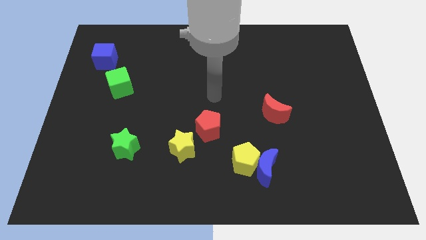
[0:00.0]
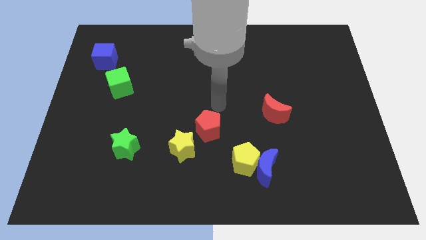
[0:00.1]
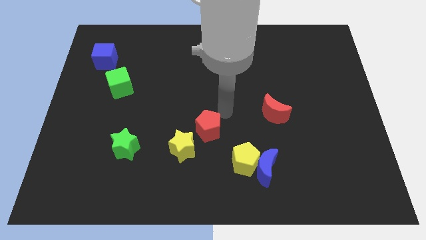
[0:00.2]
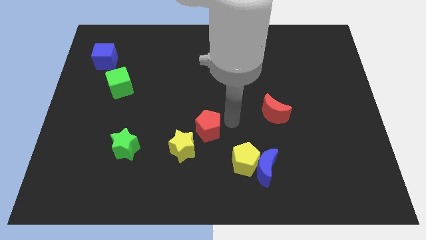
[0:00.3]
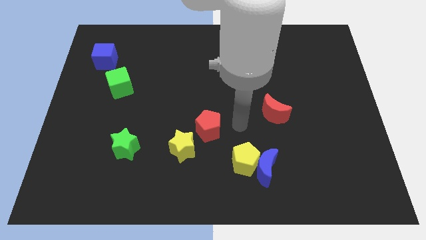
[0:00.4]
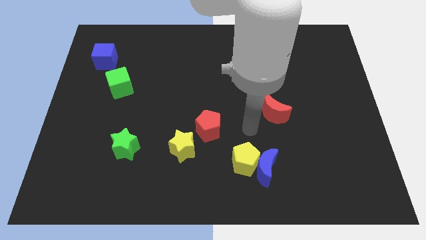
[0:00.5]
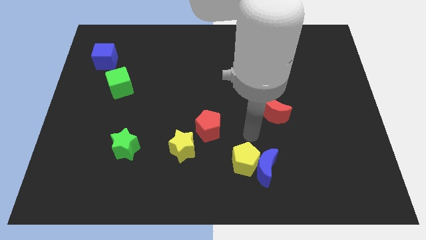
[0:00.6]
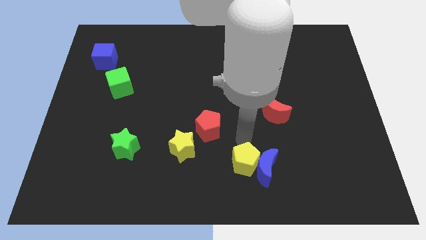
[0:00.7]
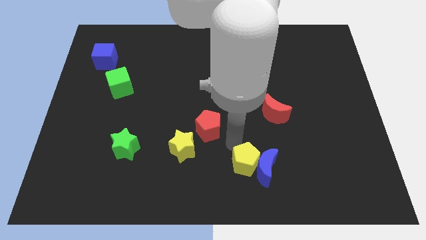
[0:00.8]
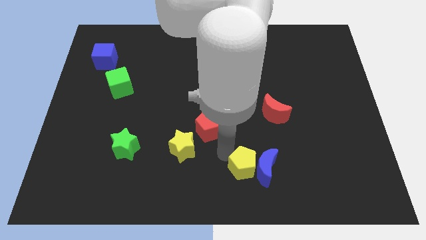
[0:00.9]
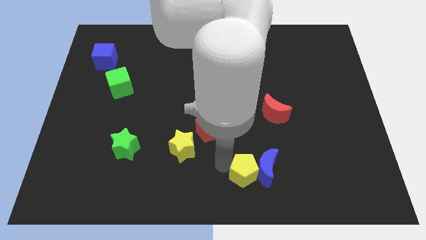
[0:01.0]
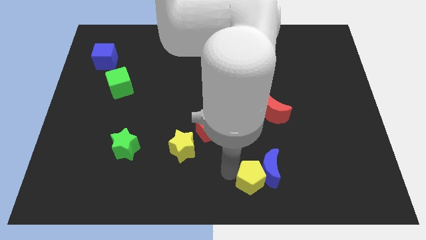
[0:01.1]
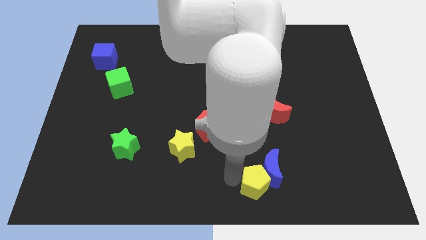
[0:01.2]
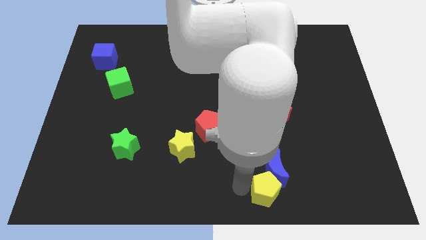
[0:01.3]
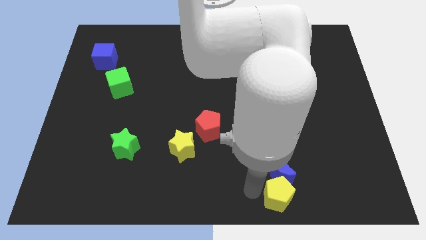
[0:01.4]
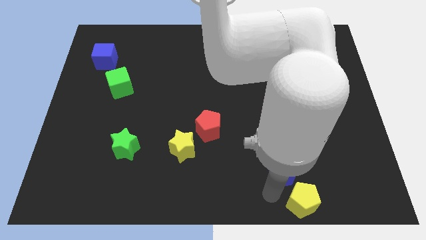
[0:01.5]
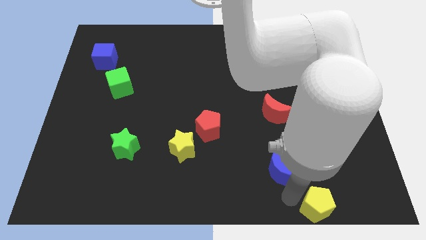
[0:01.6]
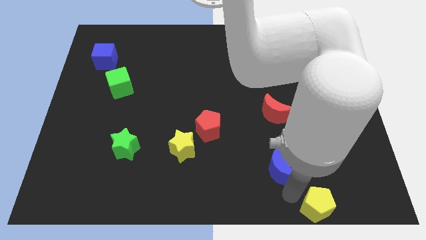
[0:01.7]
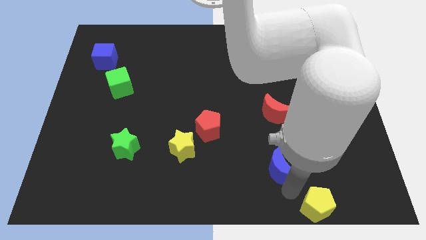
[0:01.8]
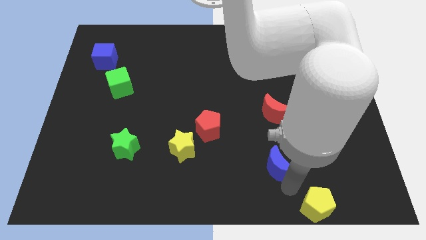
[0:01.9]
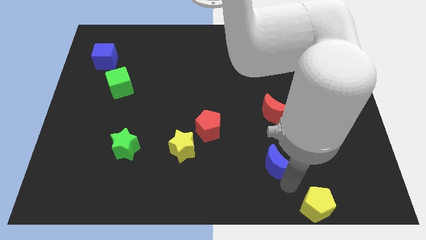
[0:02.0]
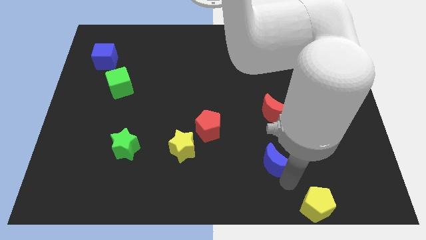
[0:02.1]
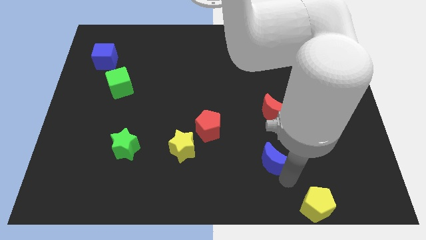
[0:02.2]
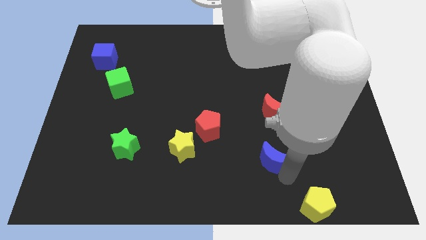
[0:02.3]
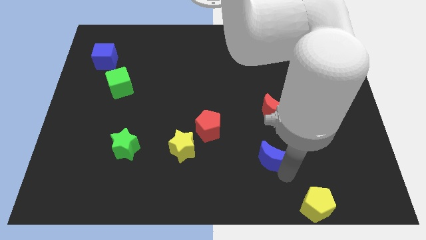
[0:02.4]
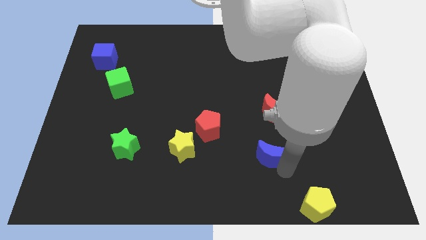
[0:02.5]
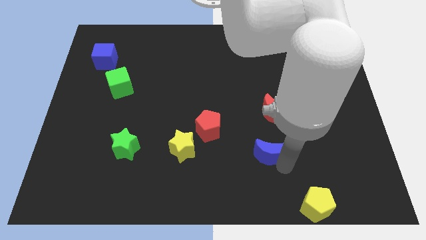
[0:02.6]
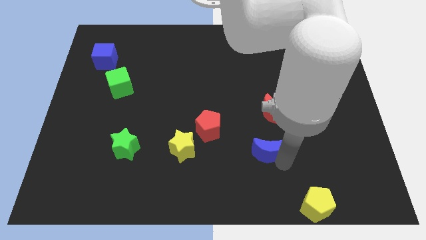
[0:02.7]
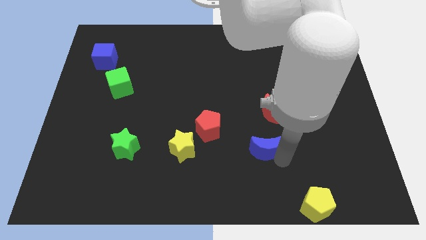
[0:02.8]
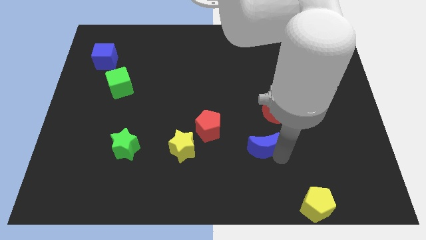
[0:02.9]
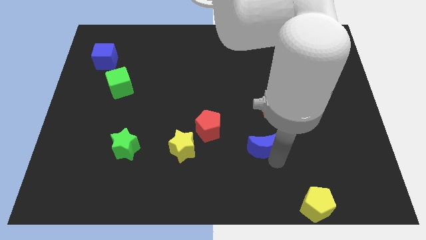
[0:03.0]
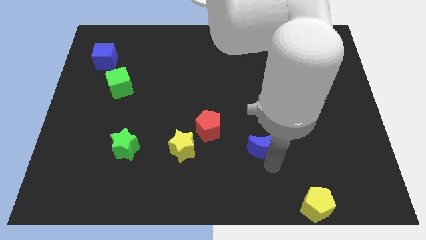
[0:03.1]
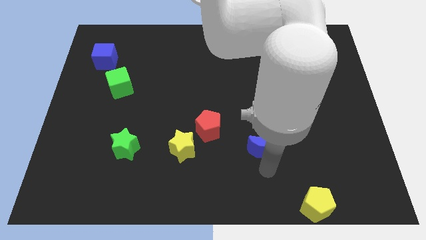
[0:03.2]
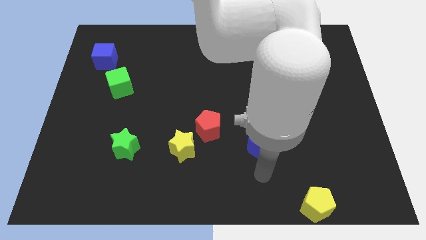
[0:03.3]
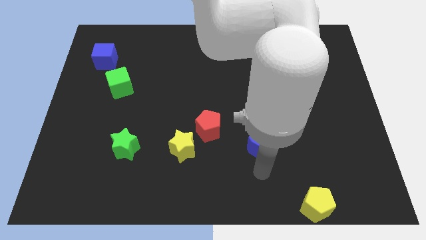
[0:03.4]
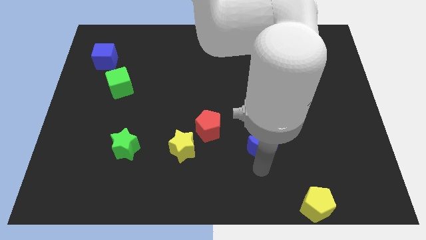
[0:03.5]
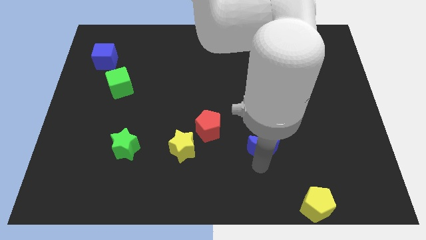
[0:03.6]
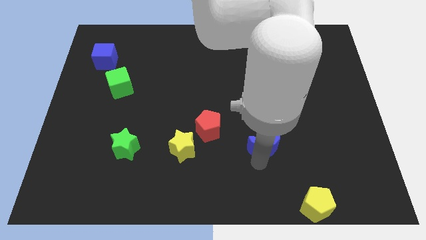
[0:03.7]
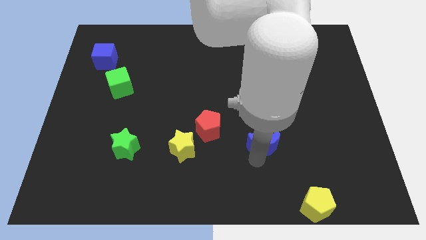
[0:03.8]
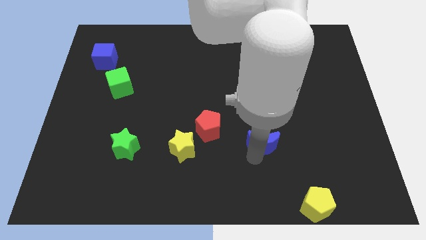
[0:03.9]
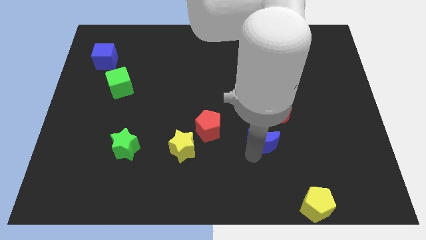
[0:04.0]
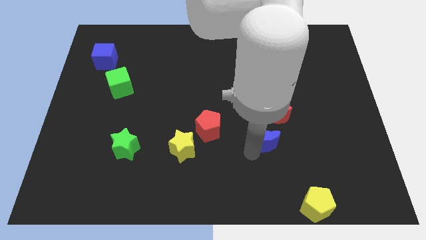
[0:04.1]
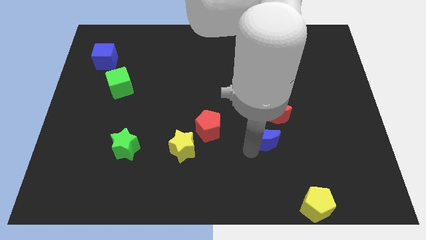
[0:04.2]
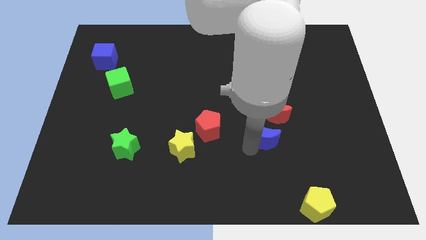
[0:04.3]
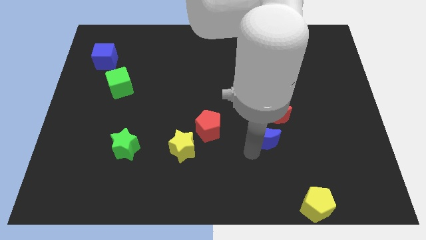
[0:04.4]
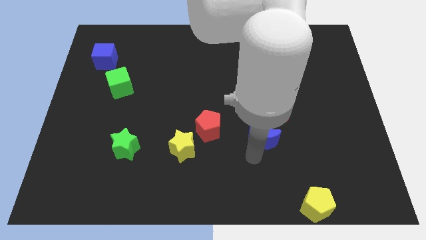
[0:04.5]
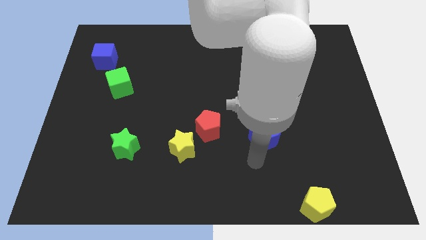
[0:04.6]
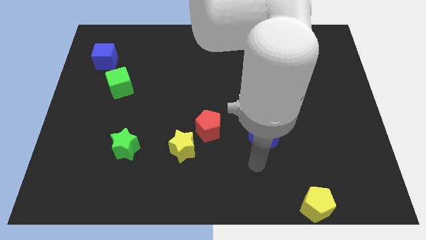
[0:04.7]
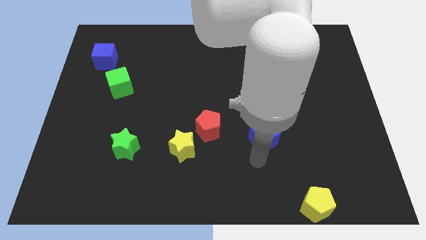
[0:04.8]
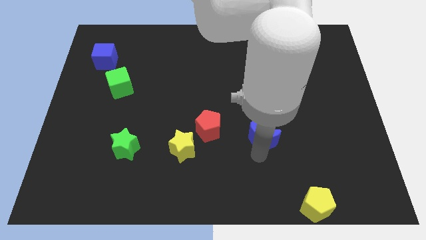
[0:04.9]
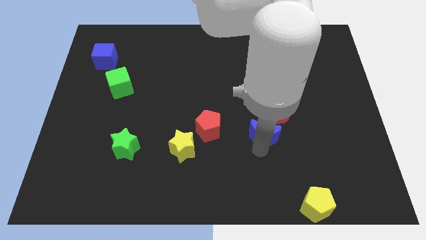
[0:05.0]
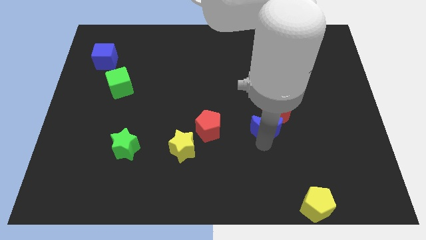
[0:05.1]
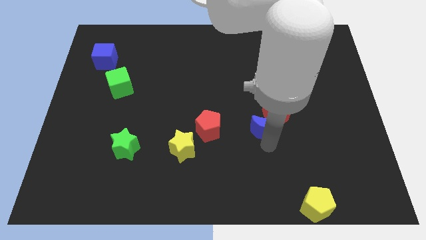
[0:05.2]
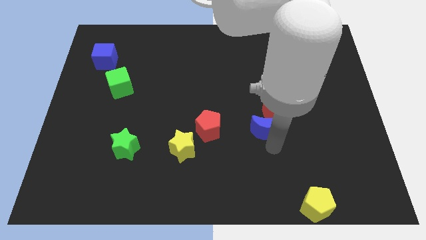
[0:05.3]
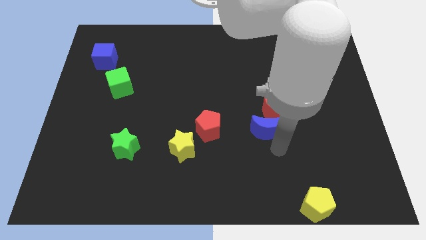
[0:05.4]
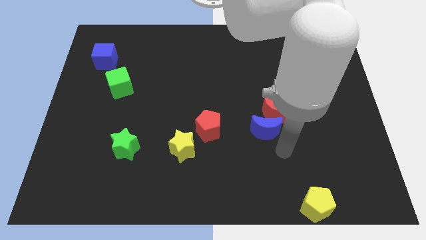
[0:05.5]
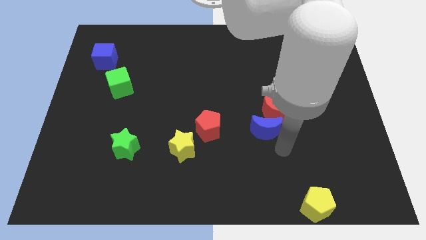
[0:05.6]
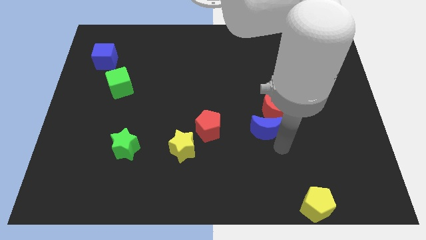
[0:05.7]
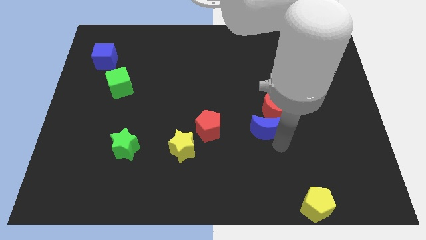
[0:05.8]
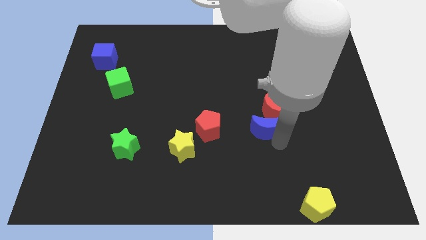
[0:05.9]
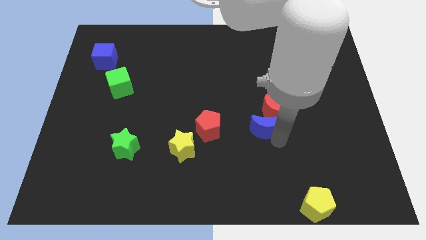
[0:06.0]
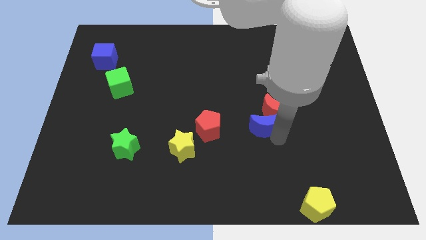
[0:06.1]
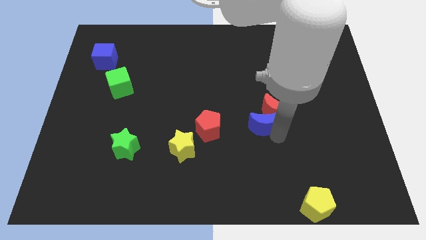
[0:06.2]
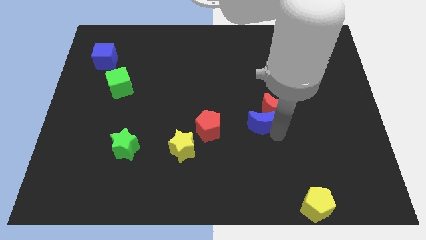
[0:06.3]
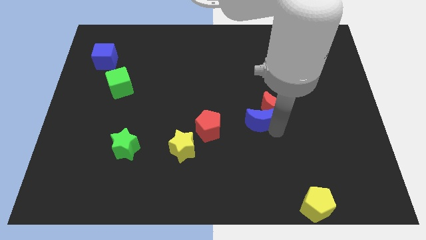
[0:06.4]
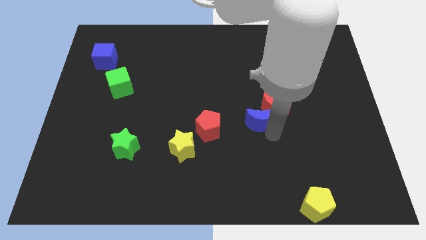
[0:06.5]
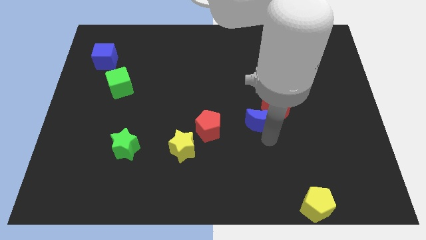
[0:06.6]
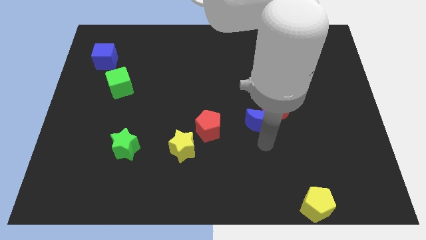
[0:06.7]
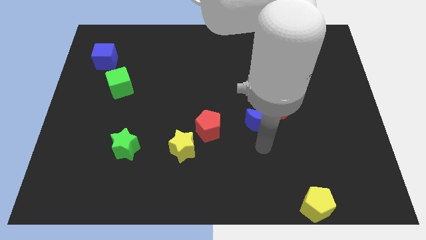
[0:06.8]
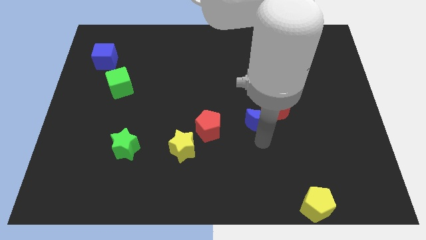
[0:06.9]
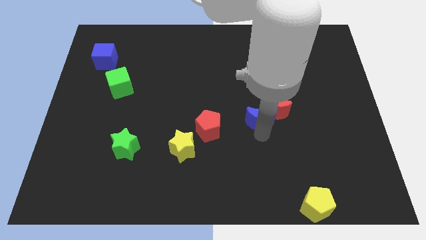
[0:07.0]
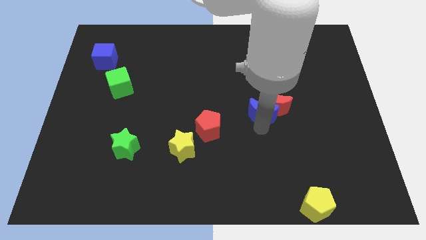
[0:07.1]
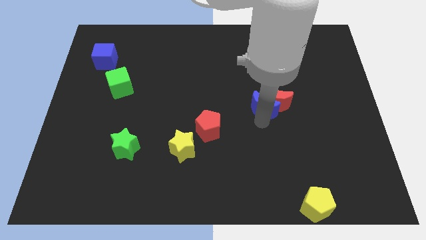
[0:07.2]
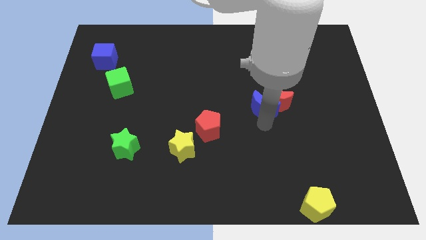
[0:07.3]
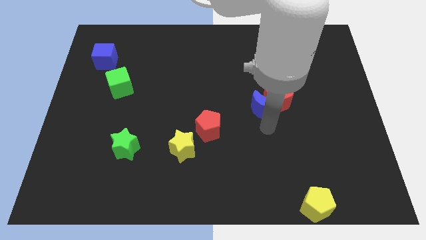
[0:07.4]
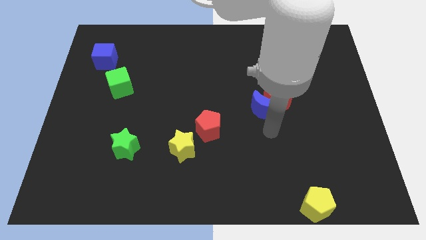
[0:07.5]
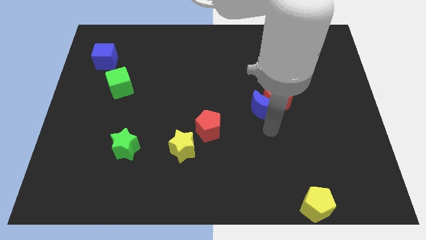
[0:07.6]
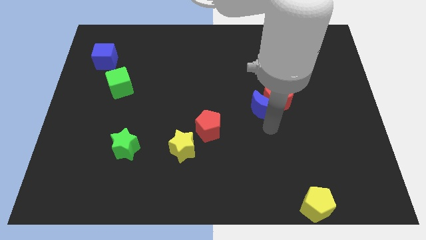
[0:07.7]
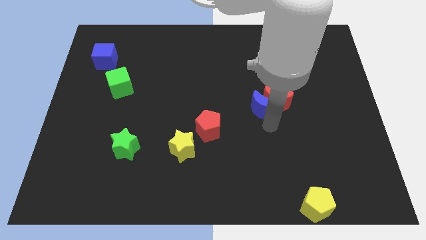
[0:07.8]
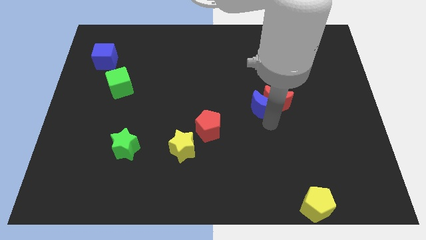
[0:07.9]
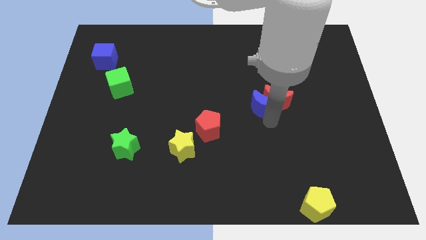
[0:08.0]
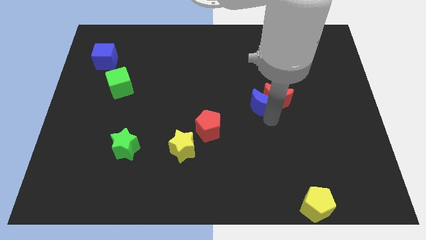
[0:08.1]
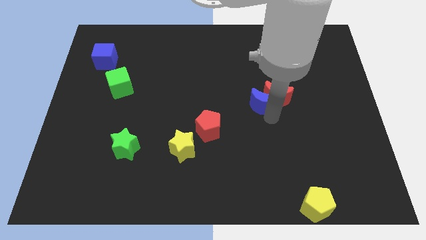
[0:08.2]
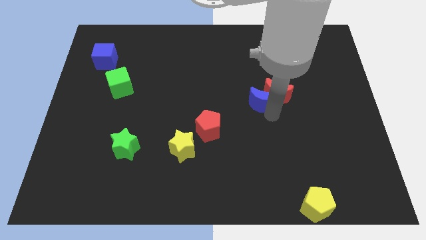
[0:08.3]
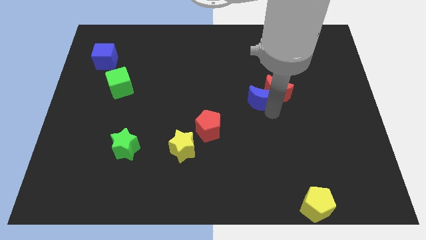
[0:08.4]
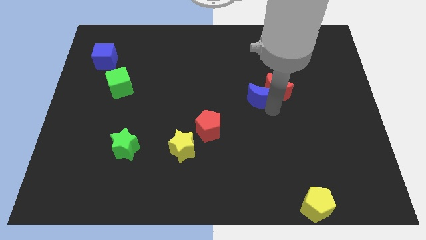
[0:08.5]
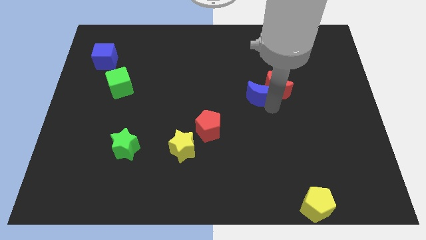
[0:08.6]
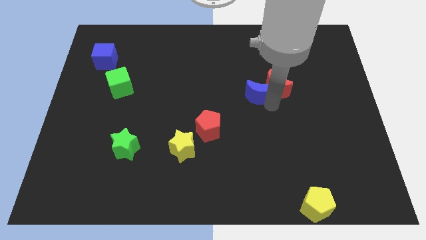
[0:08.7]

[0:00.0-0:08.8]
push the blue moon up
